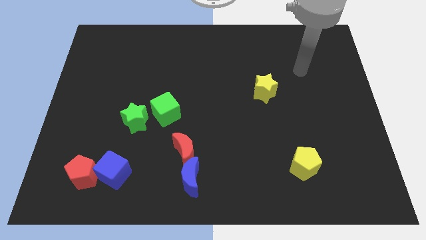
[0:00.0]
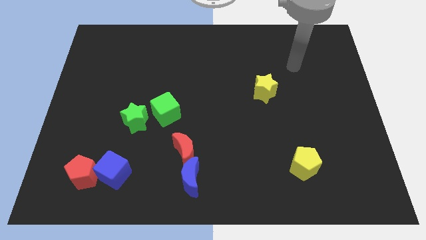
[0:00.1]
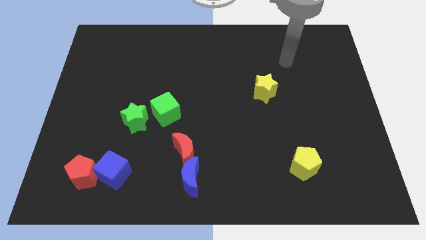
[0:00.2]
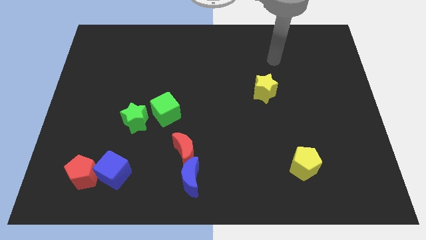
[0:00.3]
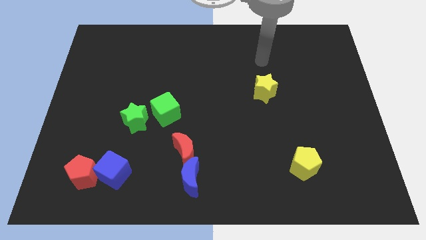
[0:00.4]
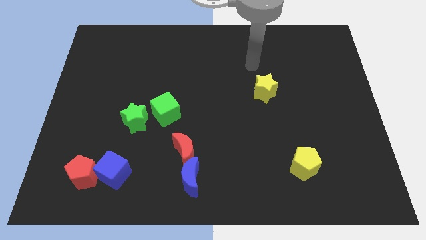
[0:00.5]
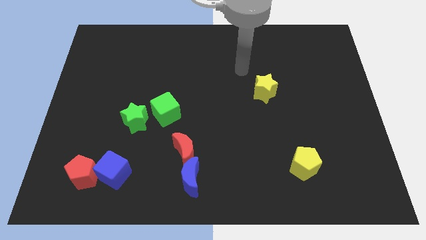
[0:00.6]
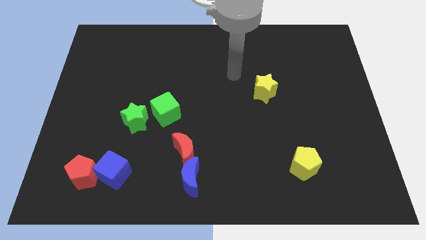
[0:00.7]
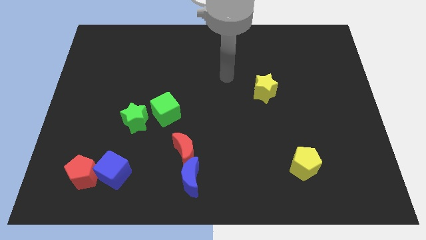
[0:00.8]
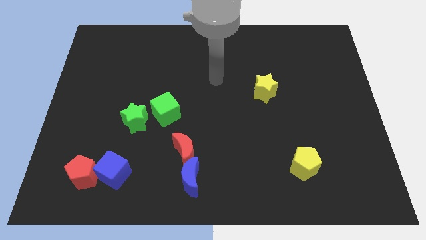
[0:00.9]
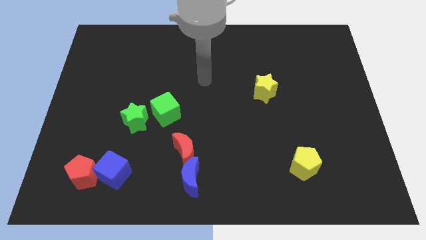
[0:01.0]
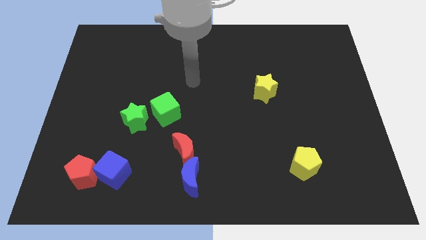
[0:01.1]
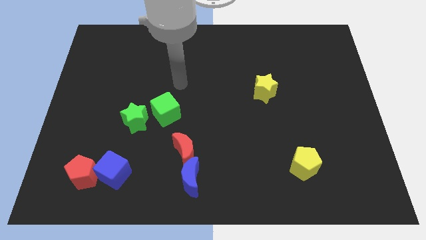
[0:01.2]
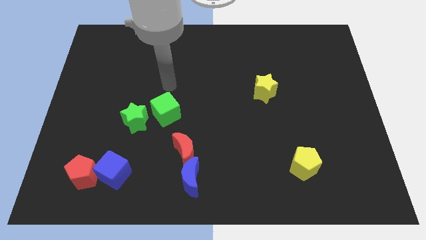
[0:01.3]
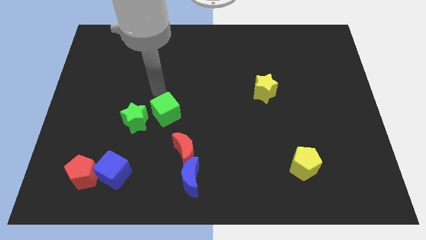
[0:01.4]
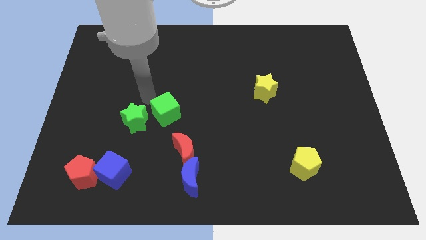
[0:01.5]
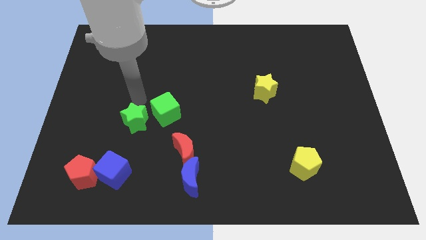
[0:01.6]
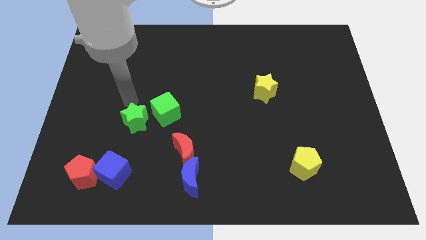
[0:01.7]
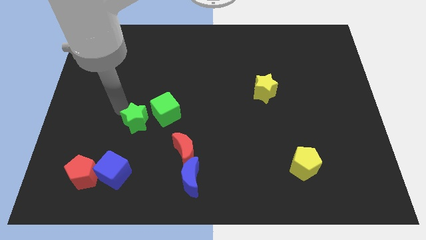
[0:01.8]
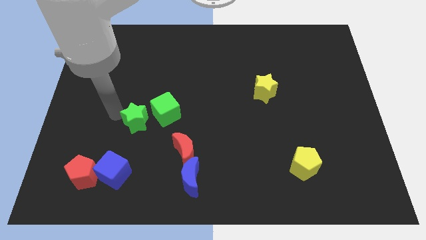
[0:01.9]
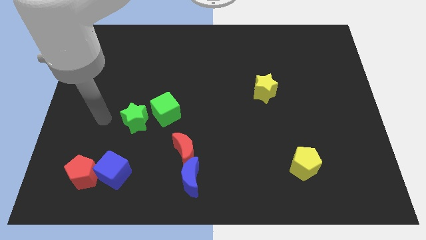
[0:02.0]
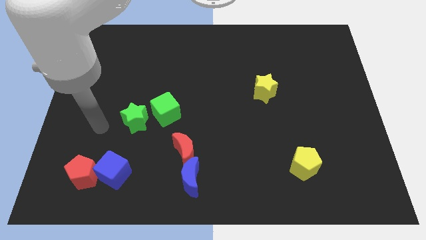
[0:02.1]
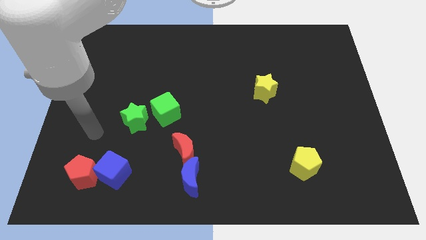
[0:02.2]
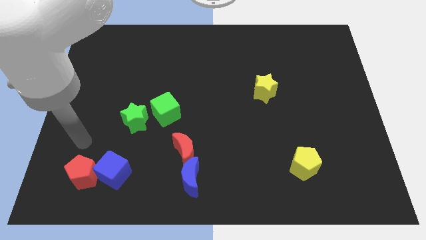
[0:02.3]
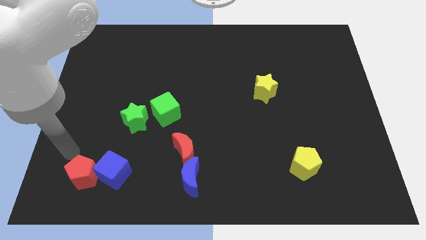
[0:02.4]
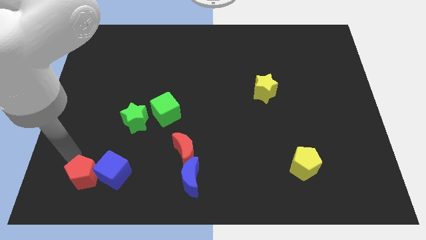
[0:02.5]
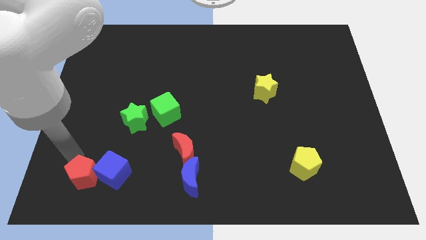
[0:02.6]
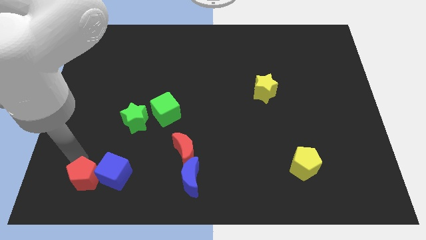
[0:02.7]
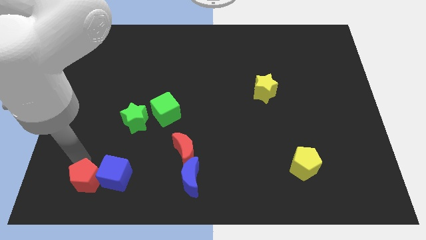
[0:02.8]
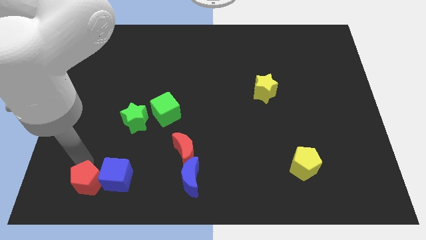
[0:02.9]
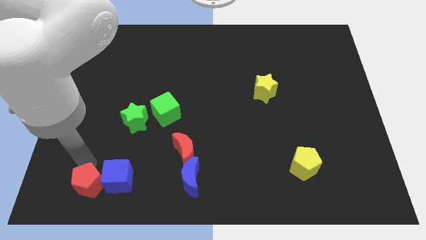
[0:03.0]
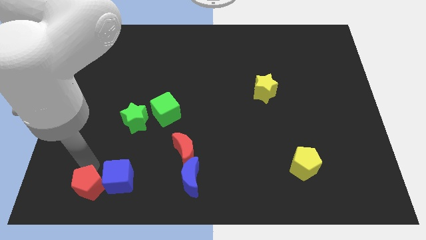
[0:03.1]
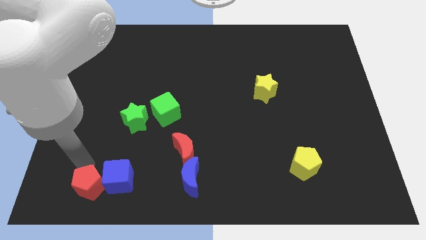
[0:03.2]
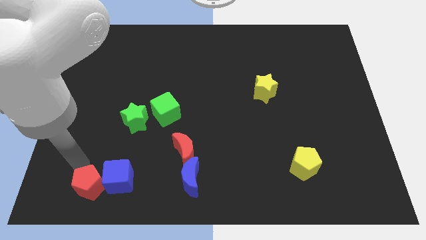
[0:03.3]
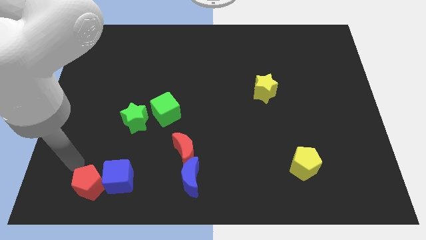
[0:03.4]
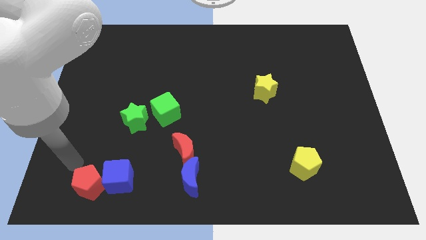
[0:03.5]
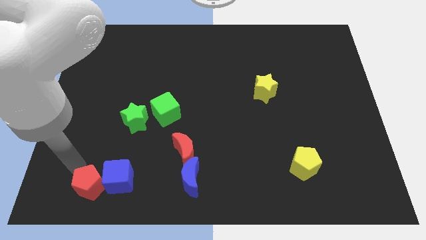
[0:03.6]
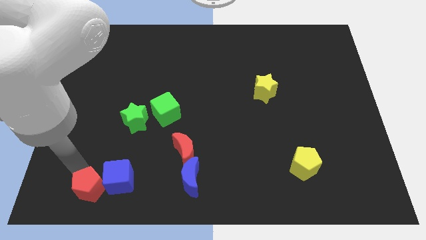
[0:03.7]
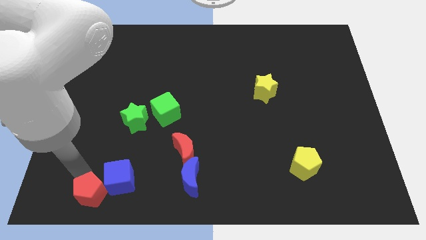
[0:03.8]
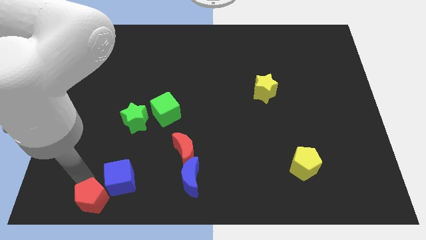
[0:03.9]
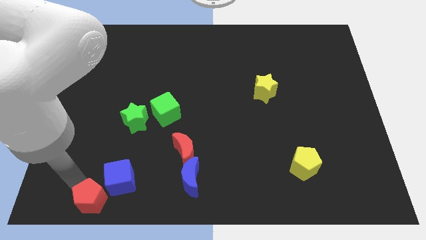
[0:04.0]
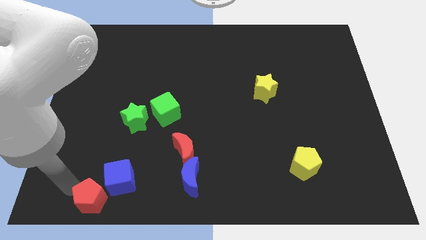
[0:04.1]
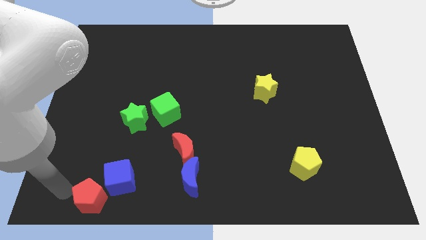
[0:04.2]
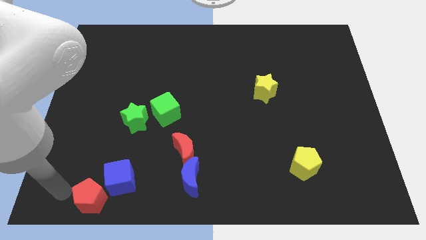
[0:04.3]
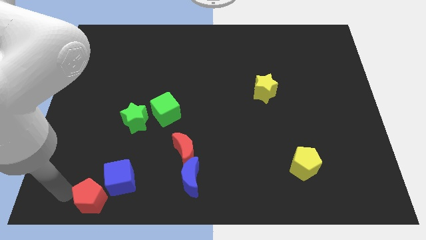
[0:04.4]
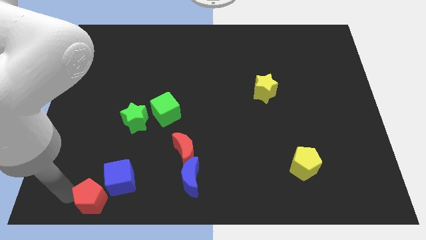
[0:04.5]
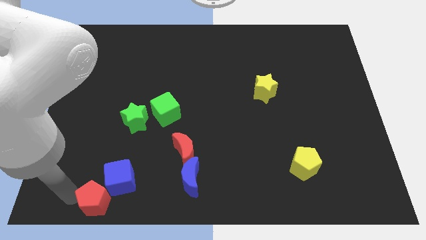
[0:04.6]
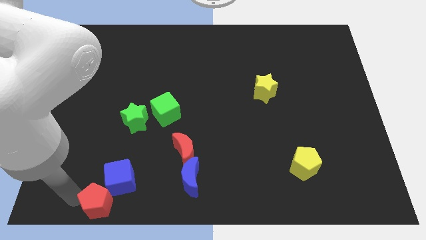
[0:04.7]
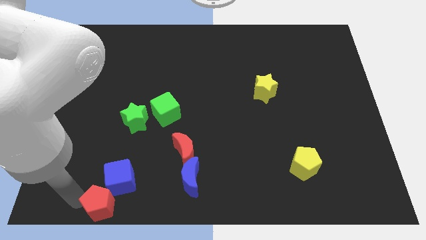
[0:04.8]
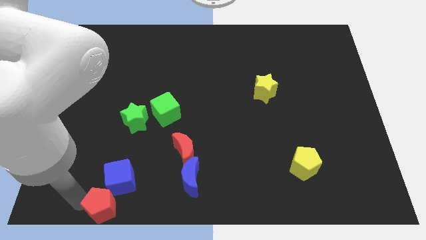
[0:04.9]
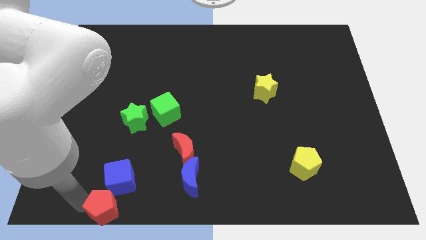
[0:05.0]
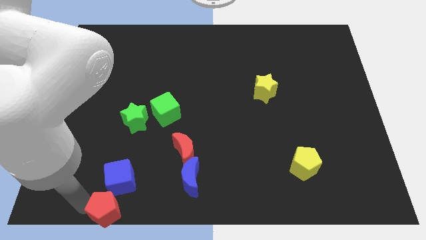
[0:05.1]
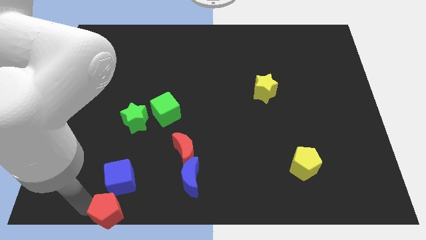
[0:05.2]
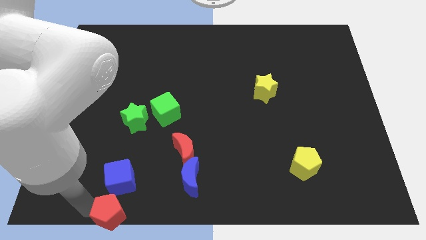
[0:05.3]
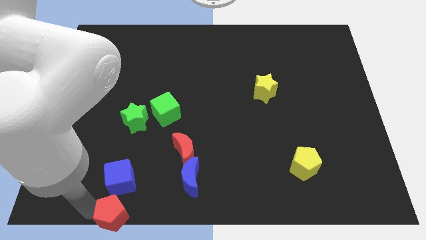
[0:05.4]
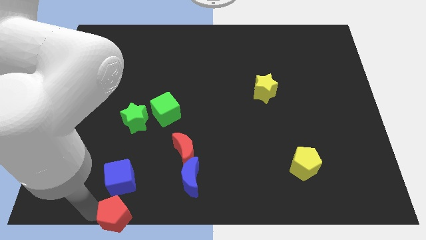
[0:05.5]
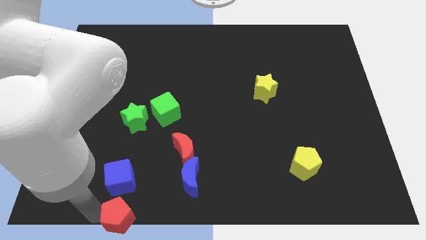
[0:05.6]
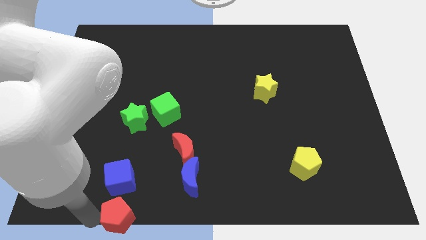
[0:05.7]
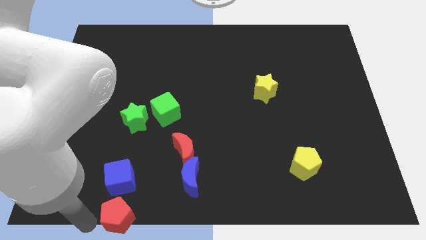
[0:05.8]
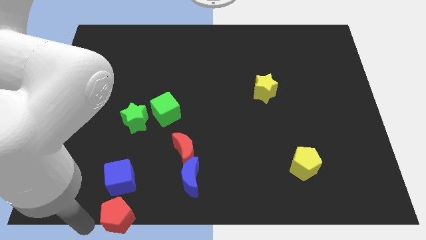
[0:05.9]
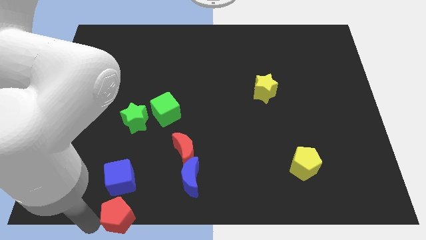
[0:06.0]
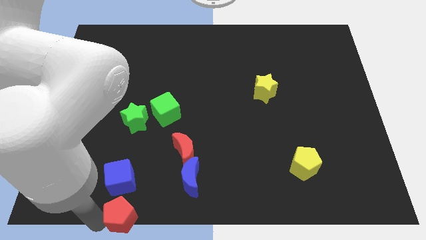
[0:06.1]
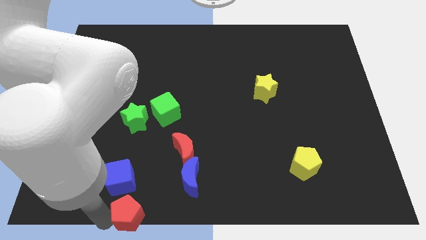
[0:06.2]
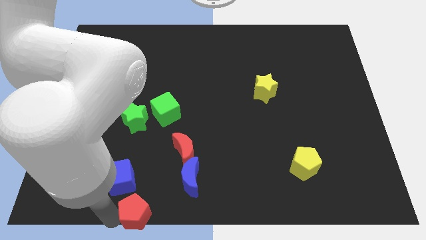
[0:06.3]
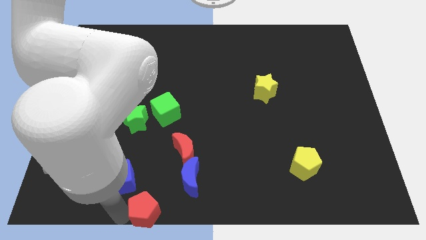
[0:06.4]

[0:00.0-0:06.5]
push the red pentagon to the bottom side

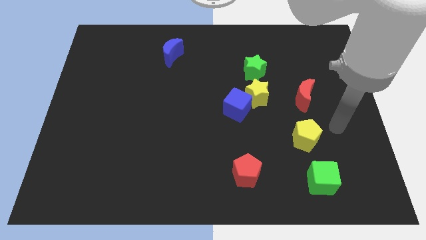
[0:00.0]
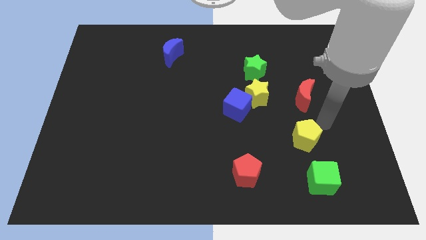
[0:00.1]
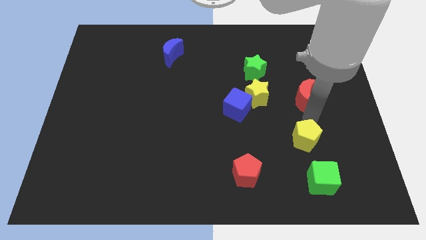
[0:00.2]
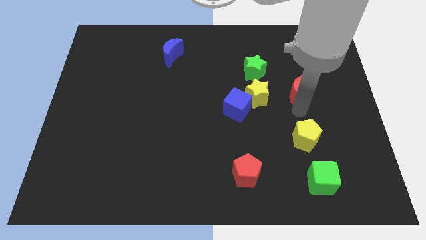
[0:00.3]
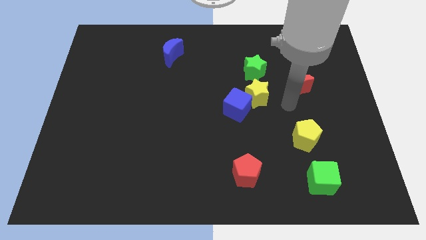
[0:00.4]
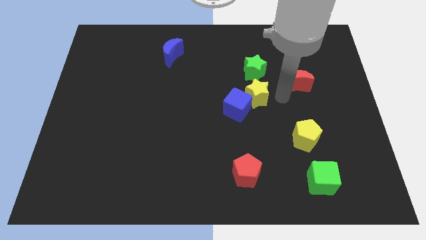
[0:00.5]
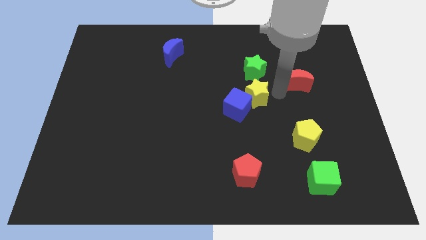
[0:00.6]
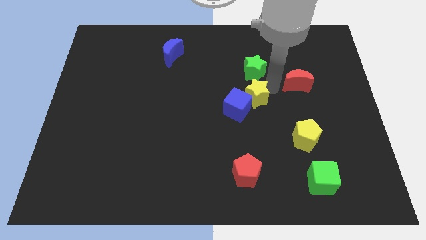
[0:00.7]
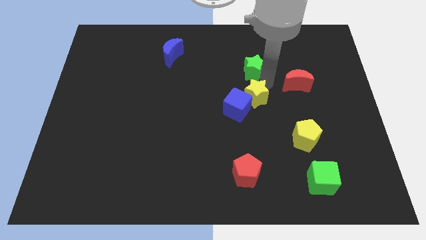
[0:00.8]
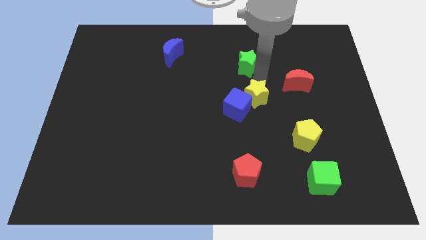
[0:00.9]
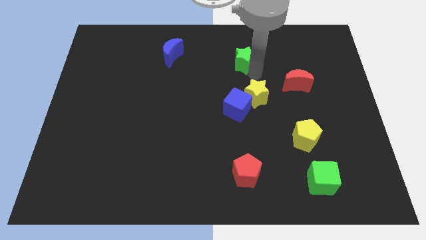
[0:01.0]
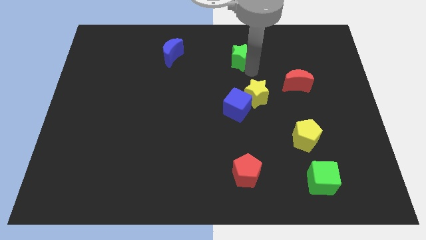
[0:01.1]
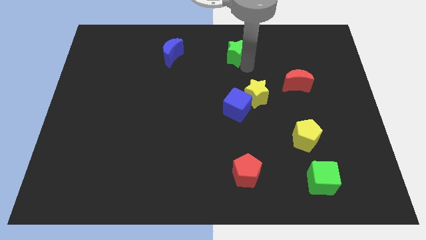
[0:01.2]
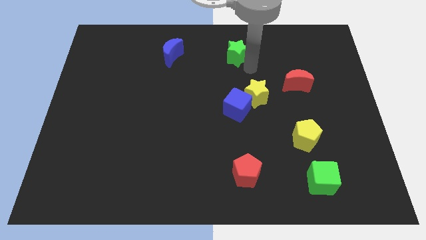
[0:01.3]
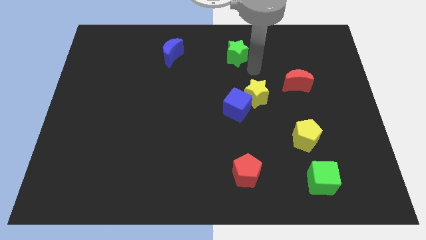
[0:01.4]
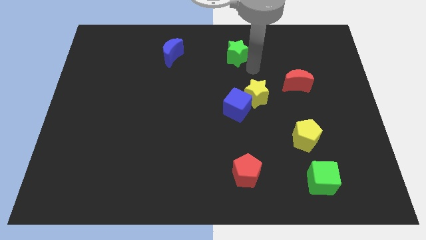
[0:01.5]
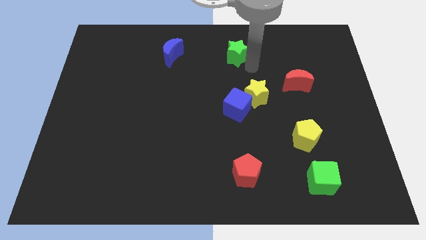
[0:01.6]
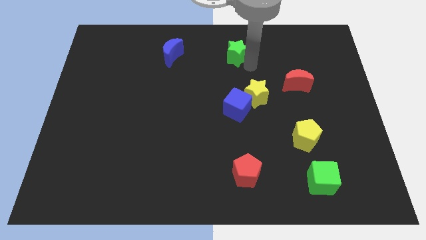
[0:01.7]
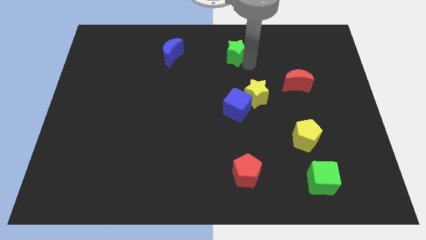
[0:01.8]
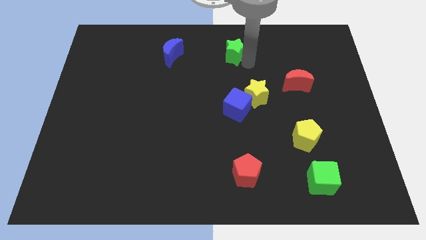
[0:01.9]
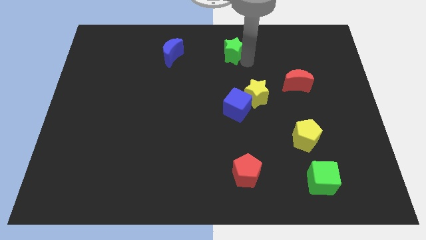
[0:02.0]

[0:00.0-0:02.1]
move the green star to the top
